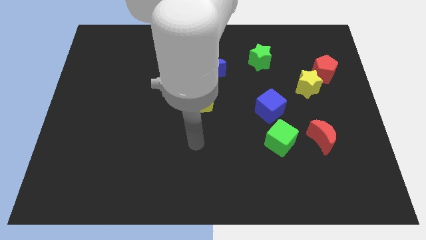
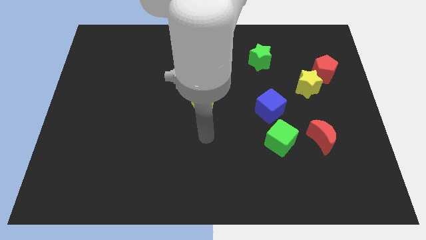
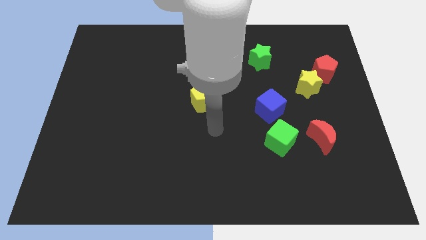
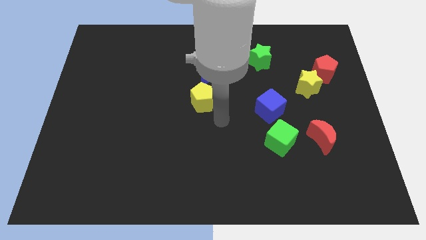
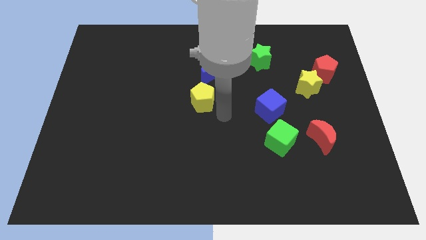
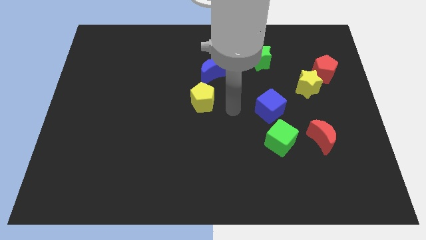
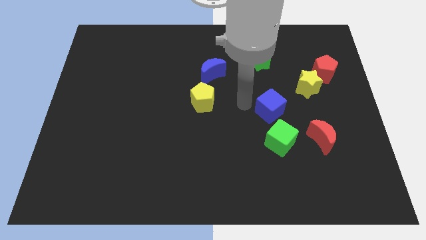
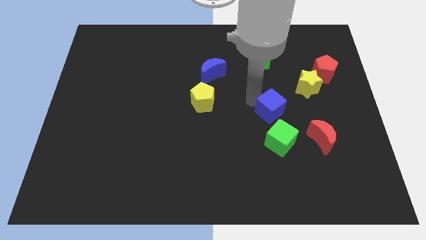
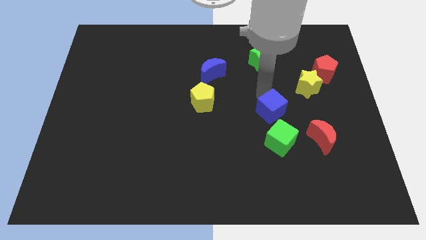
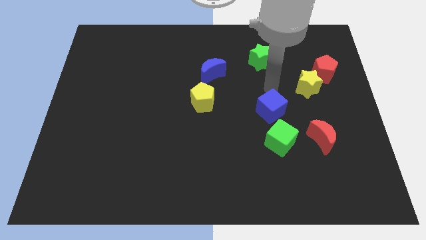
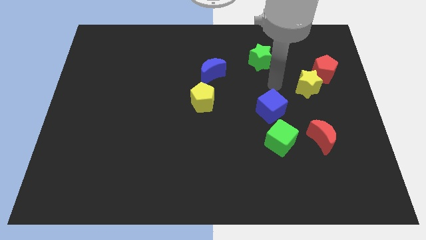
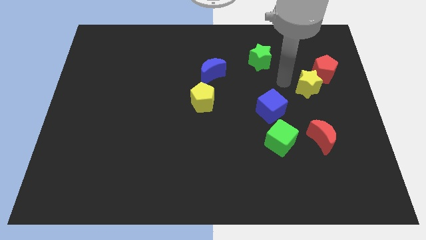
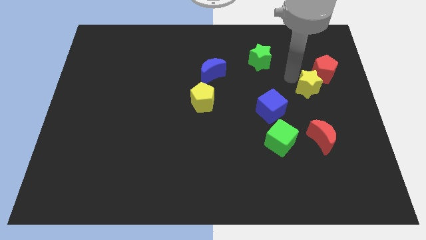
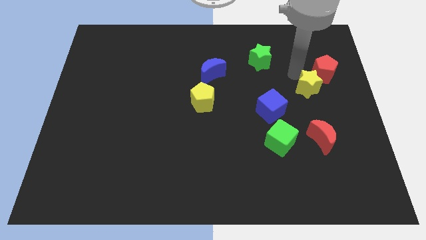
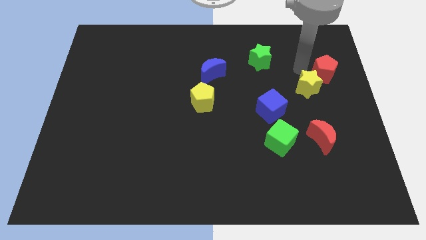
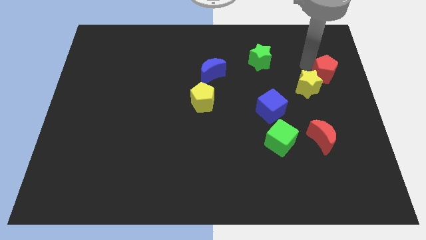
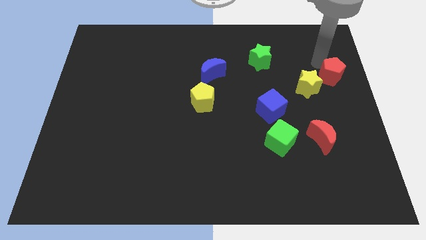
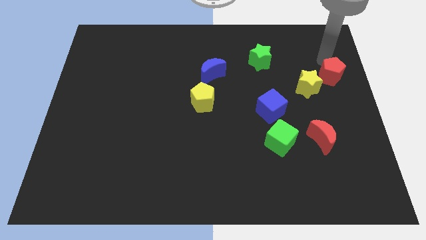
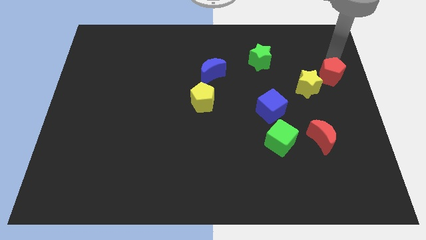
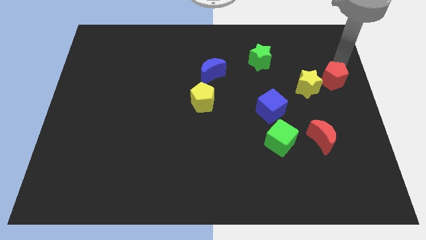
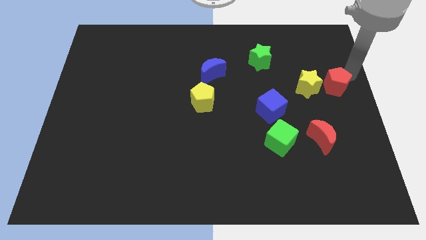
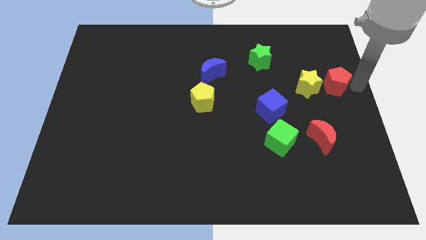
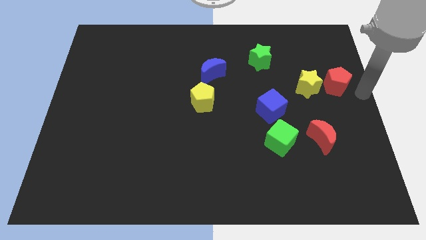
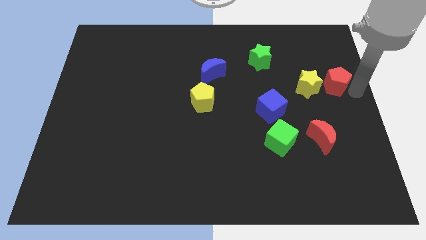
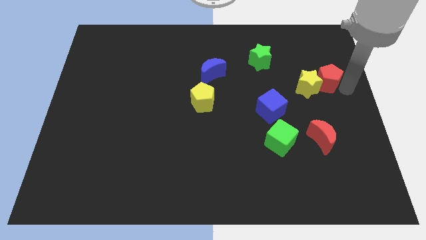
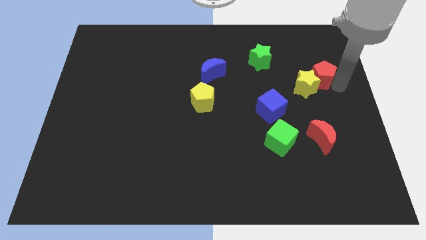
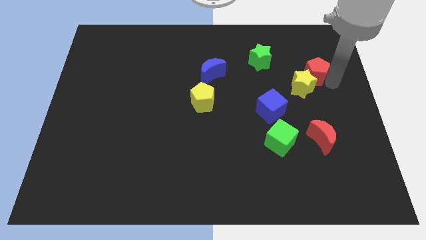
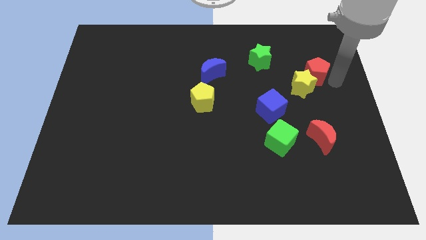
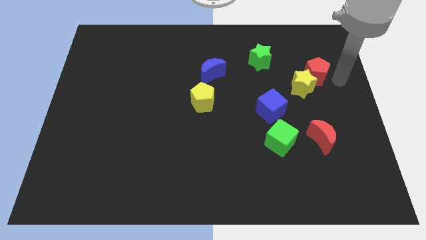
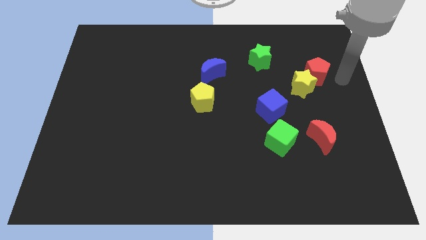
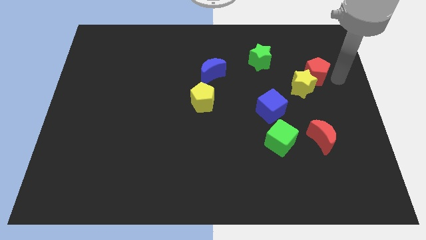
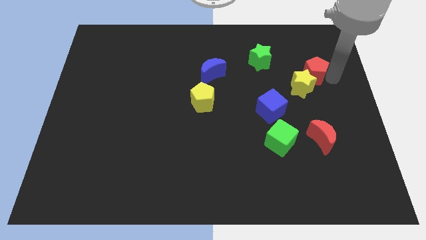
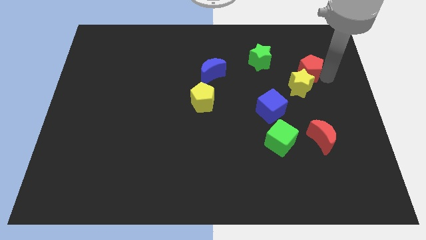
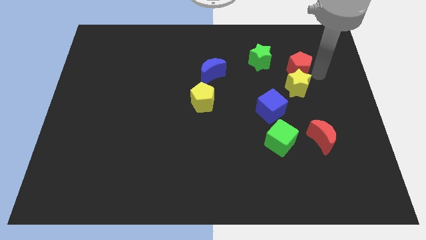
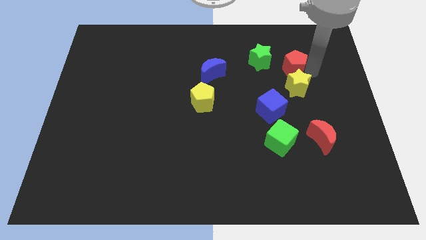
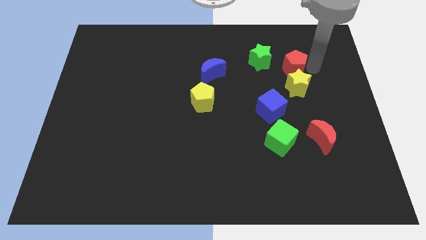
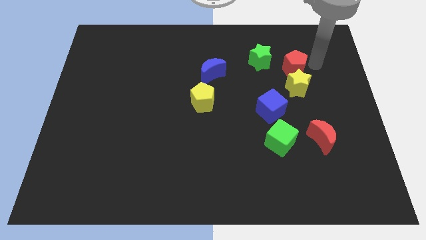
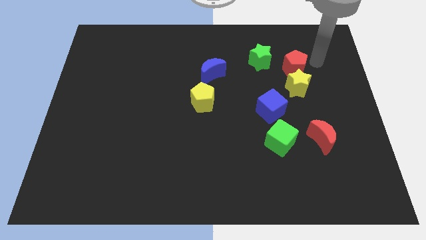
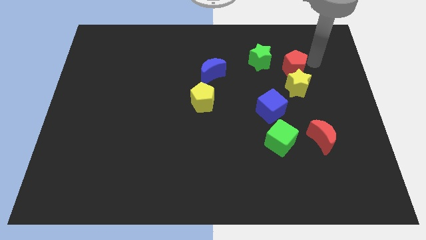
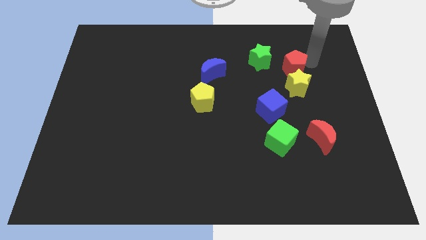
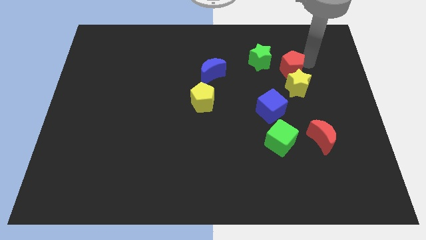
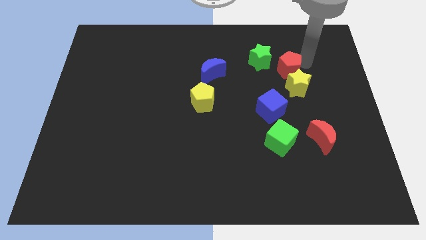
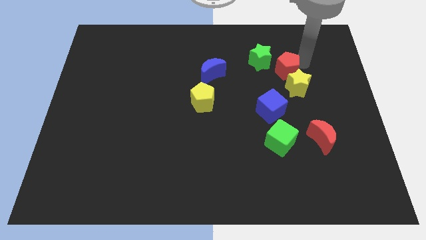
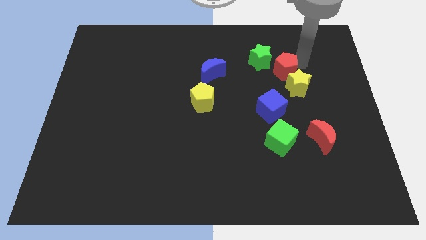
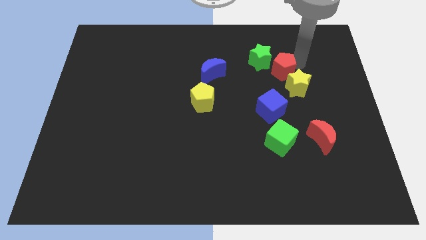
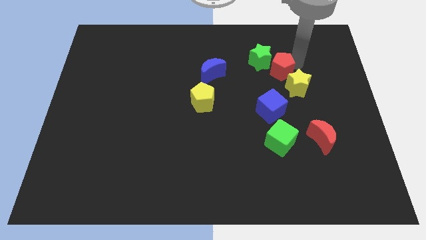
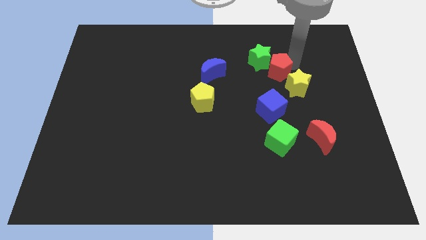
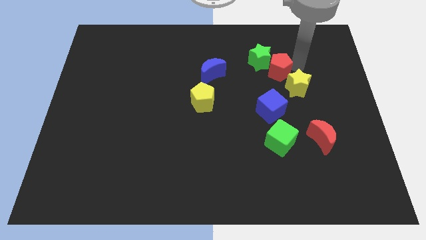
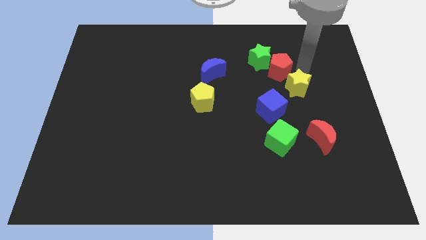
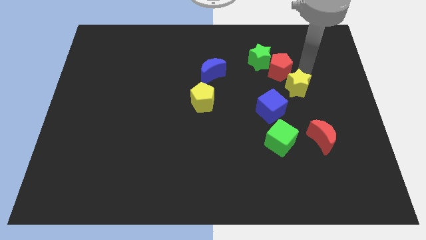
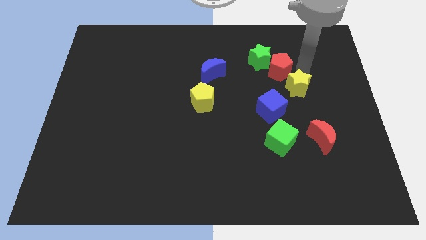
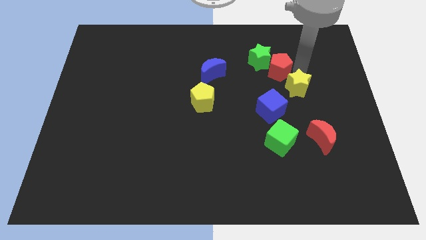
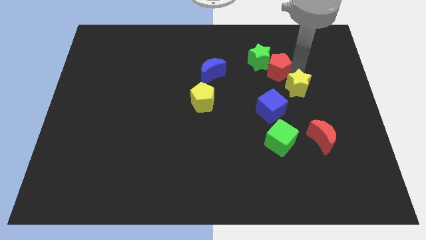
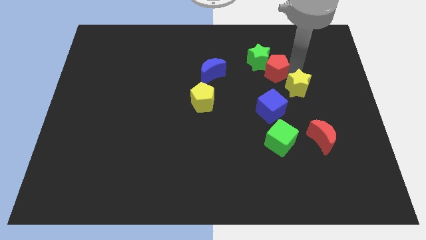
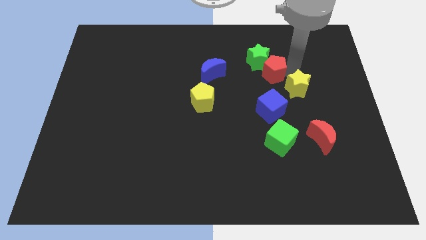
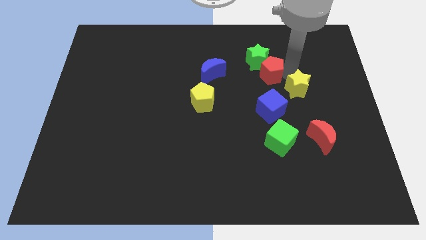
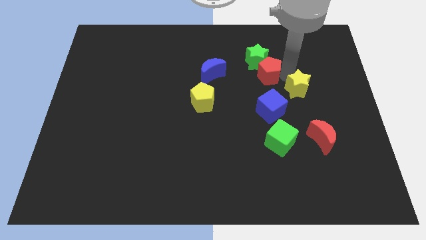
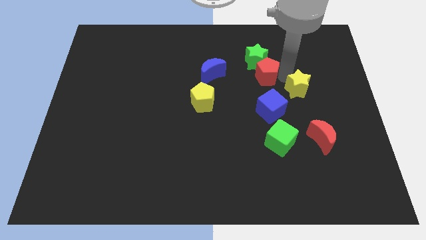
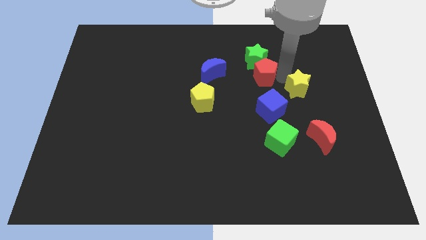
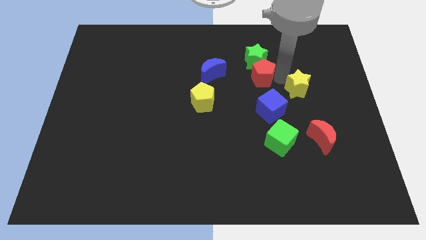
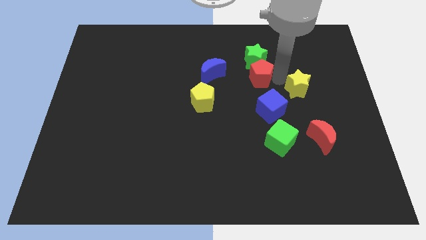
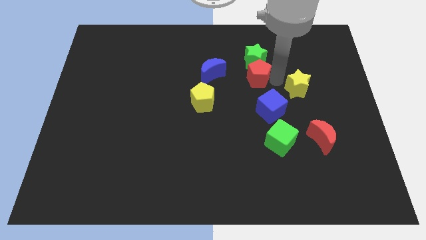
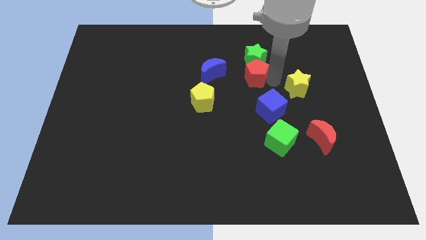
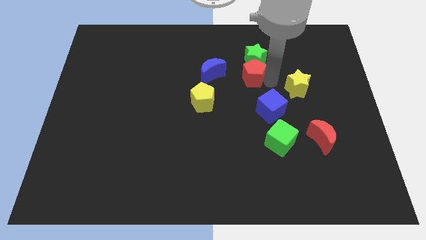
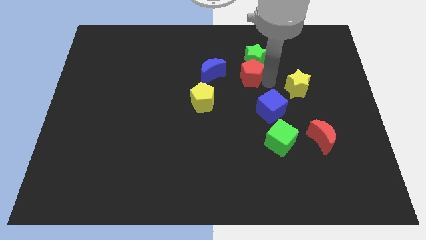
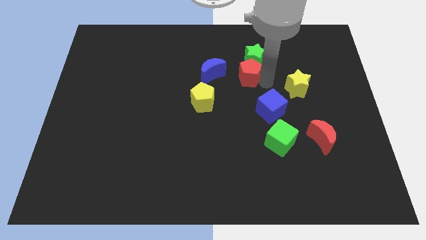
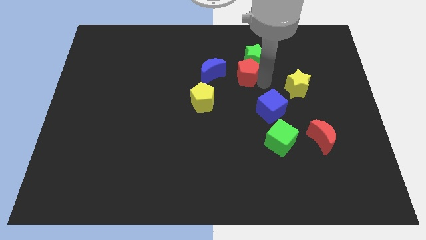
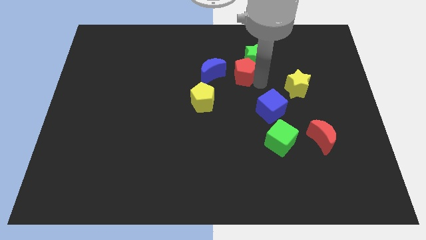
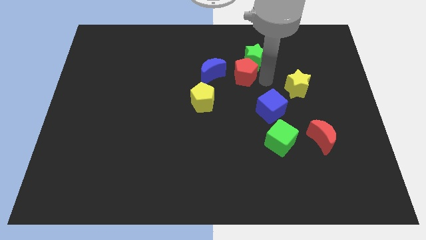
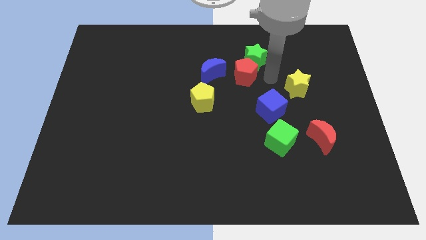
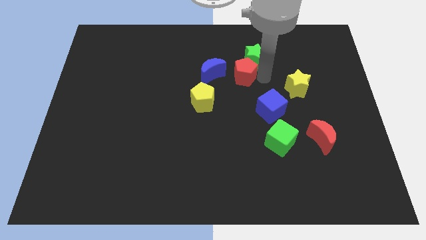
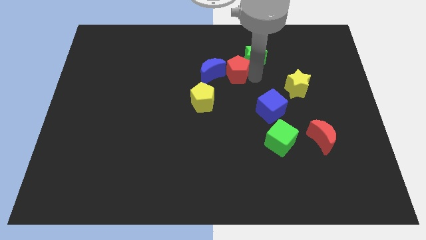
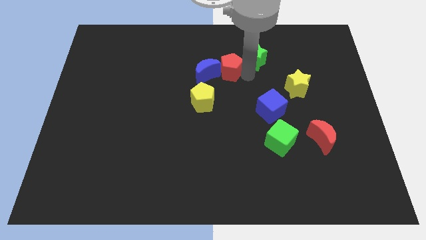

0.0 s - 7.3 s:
put the red pentagon to the blue moon
